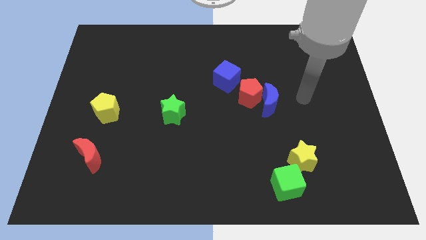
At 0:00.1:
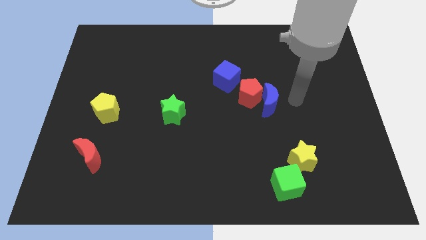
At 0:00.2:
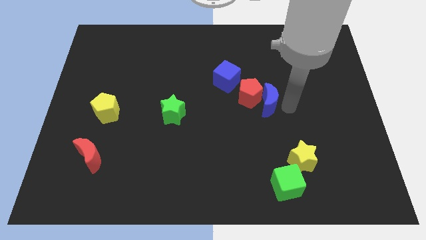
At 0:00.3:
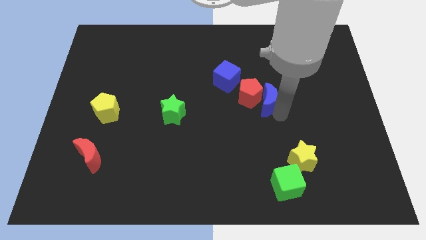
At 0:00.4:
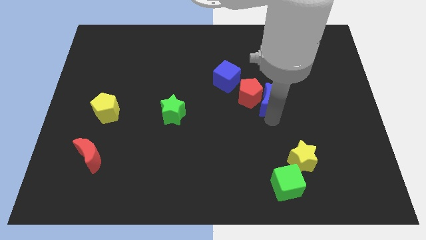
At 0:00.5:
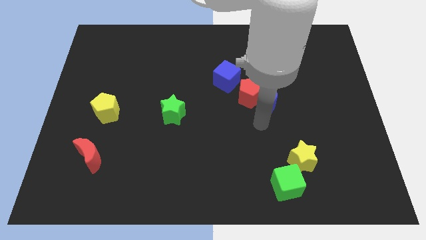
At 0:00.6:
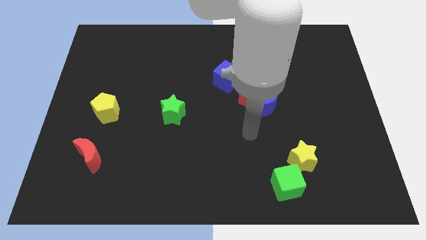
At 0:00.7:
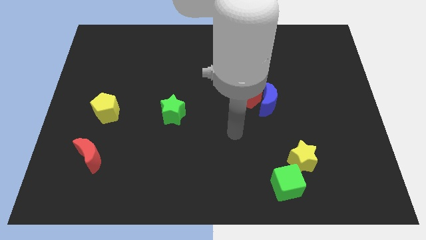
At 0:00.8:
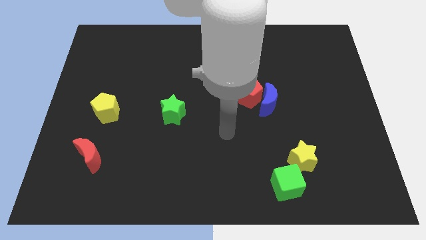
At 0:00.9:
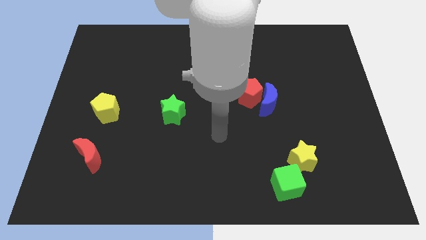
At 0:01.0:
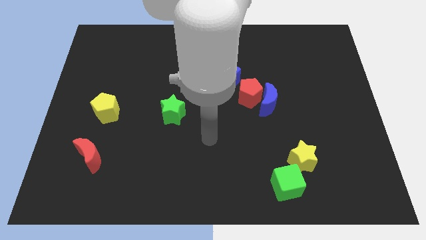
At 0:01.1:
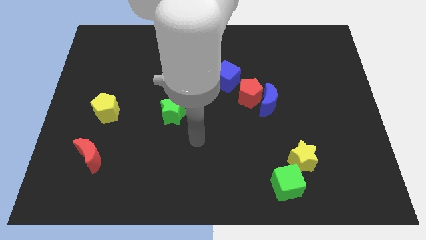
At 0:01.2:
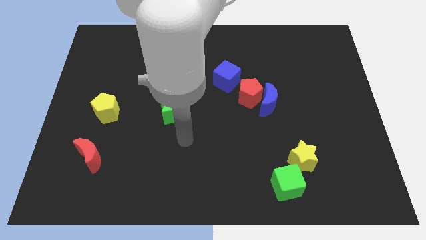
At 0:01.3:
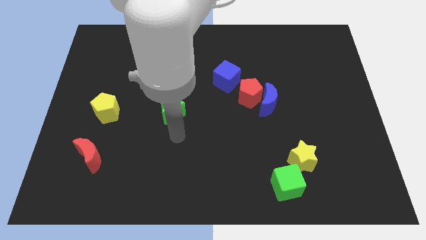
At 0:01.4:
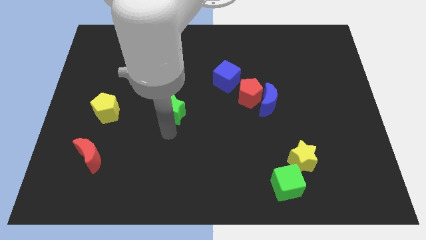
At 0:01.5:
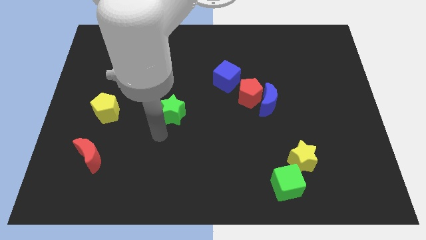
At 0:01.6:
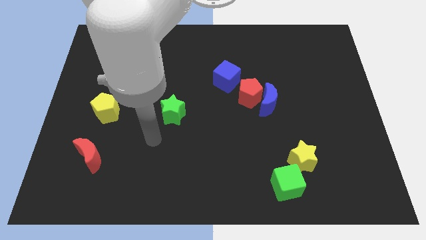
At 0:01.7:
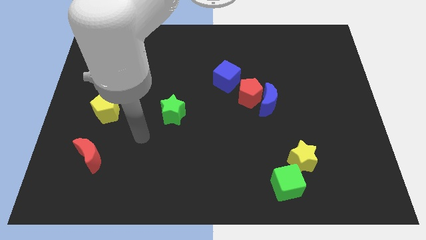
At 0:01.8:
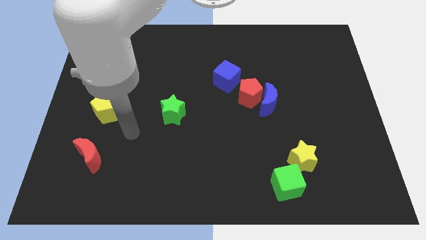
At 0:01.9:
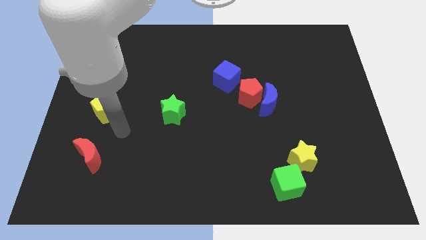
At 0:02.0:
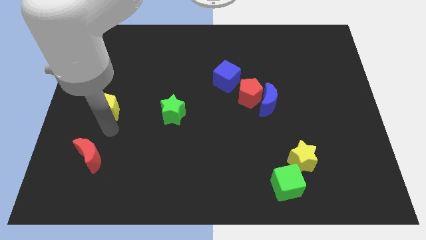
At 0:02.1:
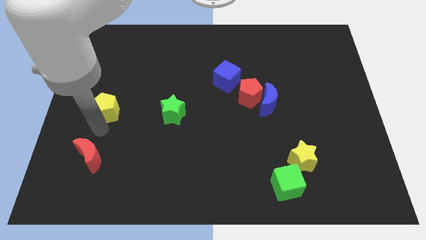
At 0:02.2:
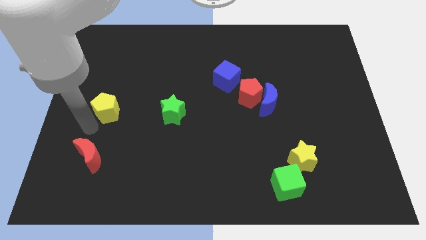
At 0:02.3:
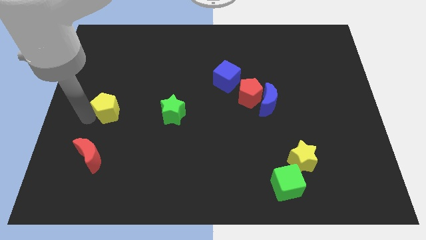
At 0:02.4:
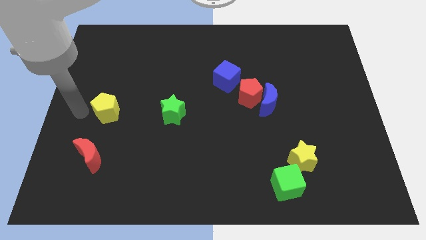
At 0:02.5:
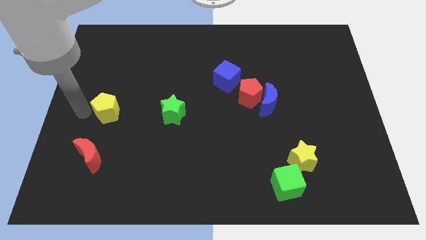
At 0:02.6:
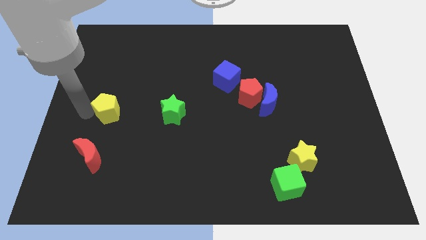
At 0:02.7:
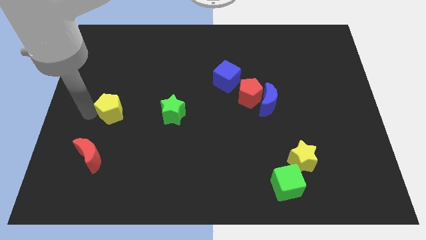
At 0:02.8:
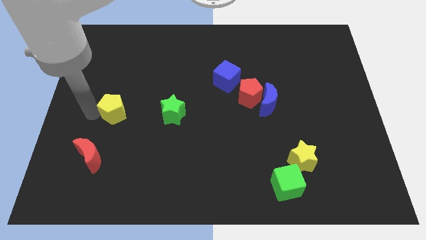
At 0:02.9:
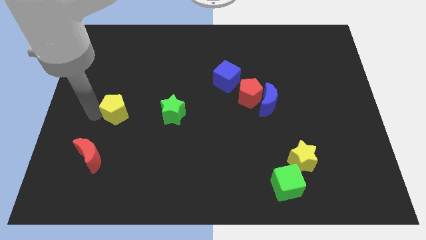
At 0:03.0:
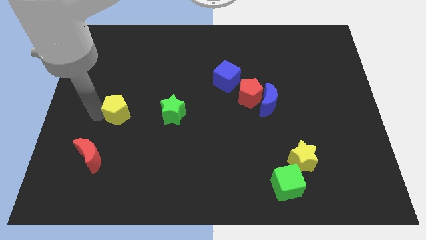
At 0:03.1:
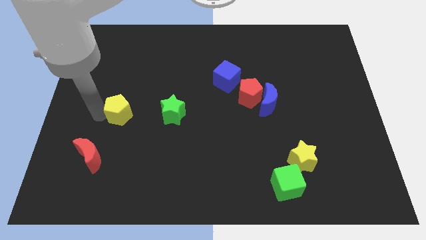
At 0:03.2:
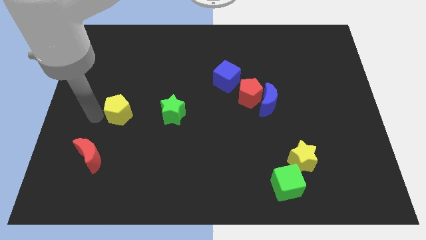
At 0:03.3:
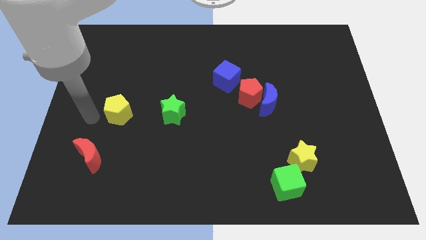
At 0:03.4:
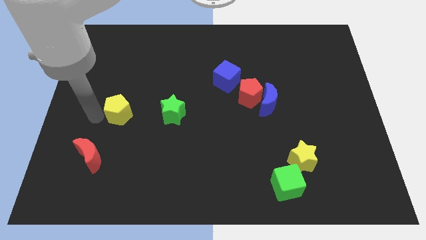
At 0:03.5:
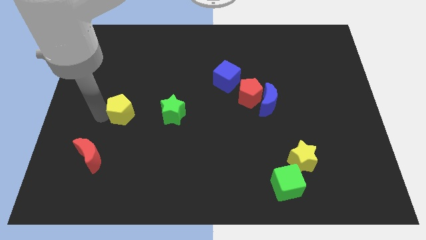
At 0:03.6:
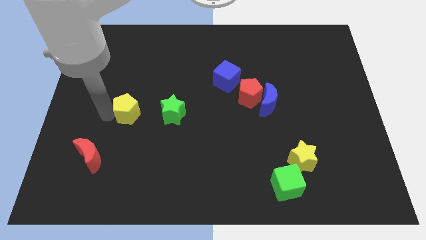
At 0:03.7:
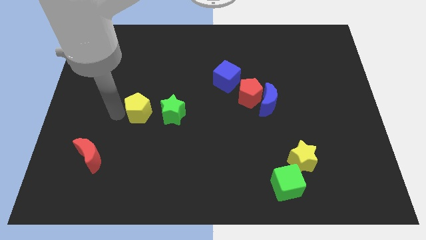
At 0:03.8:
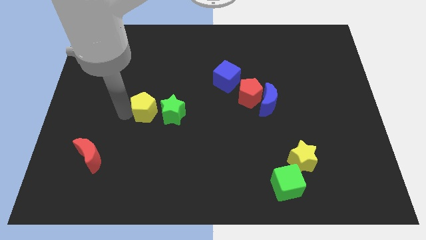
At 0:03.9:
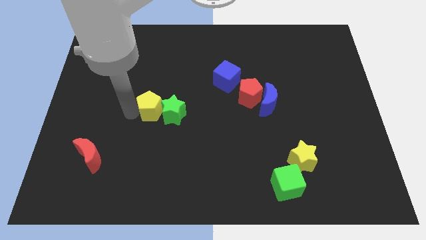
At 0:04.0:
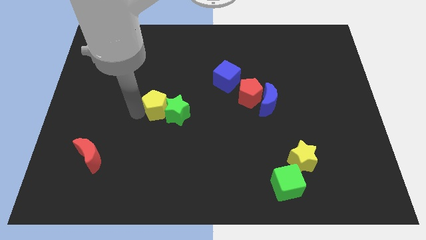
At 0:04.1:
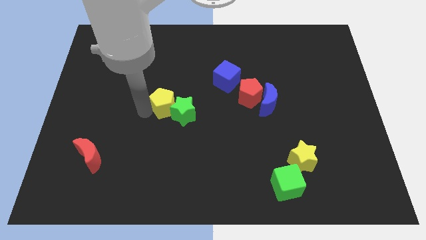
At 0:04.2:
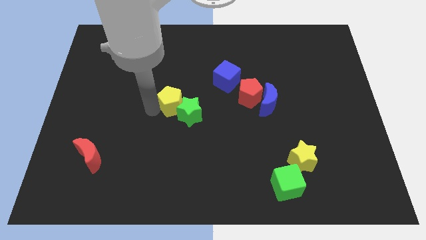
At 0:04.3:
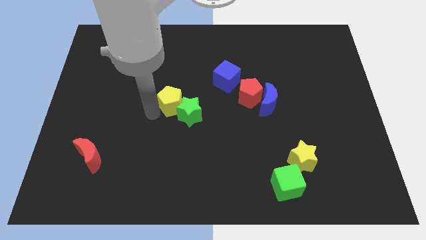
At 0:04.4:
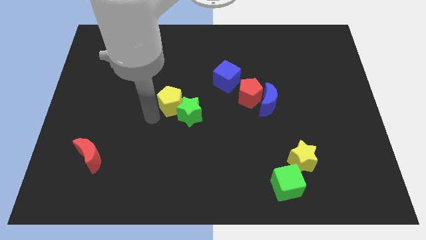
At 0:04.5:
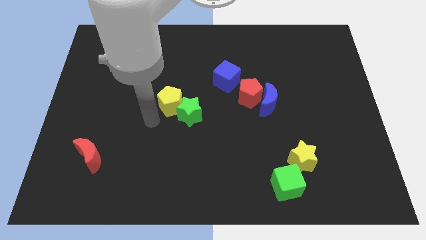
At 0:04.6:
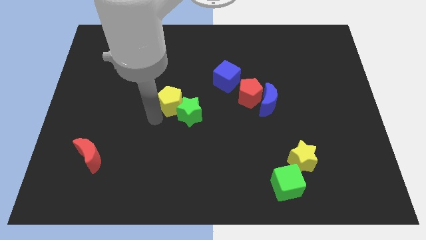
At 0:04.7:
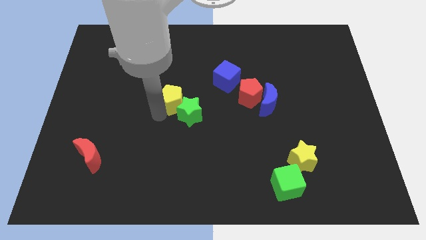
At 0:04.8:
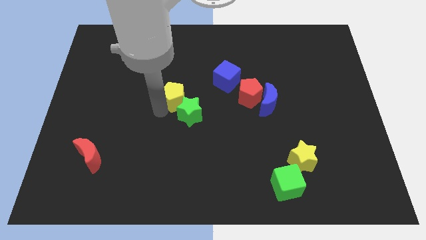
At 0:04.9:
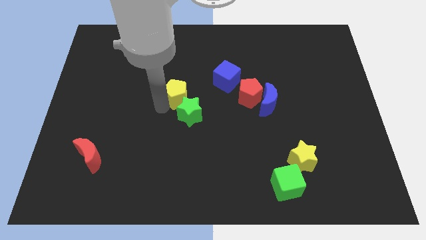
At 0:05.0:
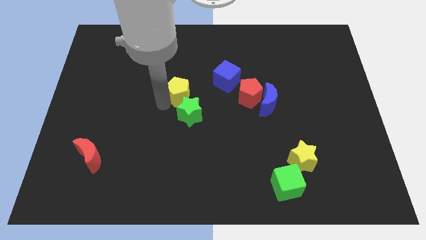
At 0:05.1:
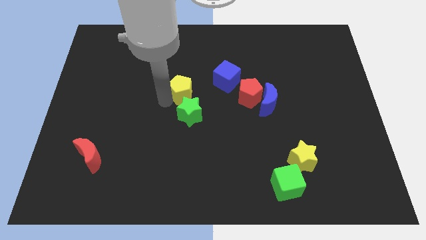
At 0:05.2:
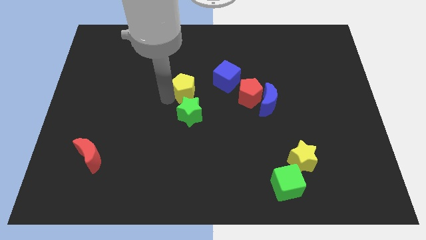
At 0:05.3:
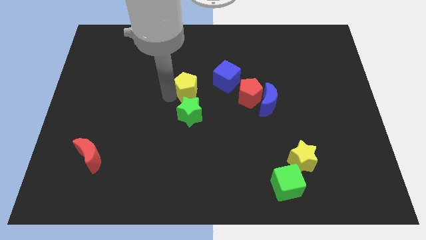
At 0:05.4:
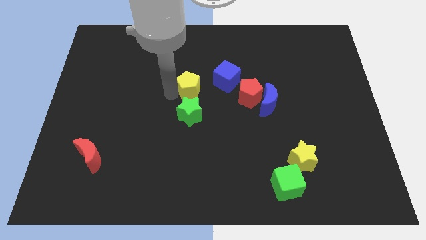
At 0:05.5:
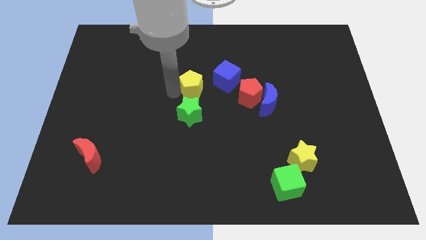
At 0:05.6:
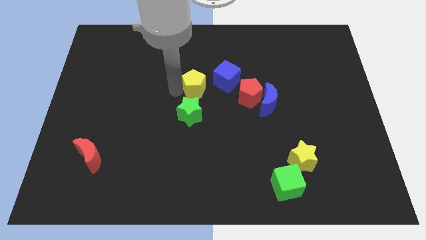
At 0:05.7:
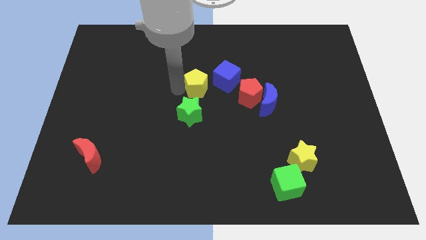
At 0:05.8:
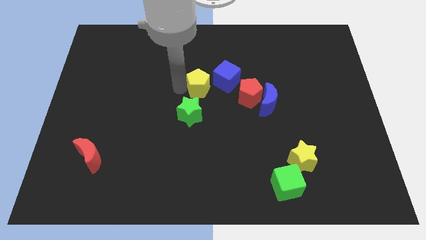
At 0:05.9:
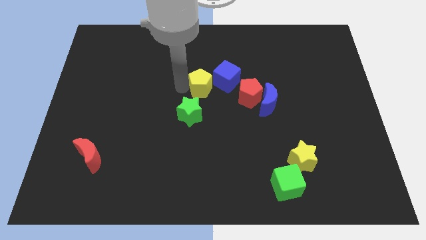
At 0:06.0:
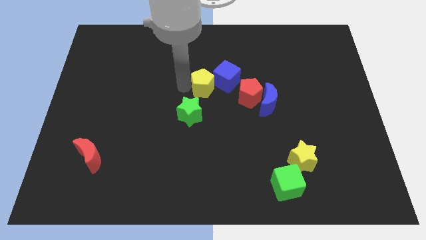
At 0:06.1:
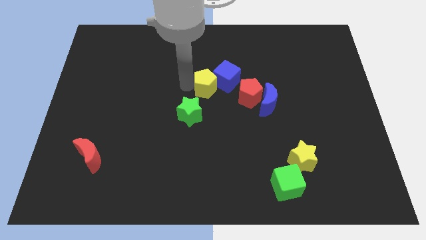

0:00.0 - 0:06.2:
push the yellow pentagon towards the blue cube
